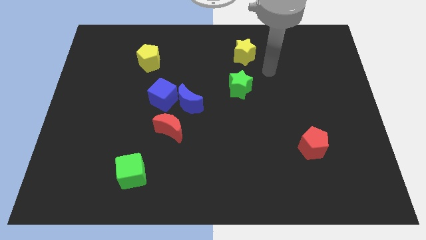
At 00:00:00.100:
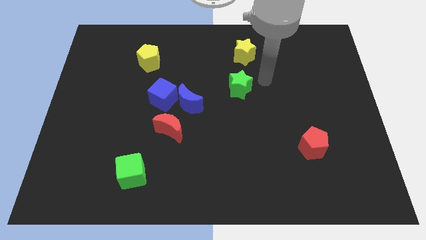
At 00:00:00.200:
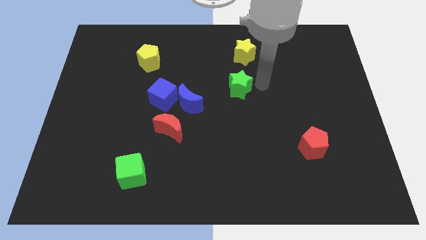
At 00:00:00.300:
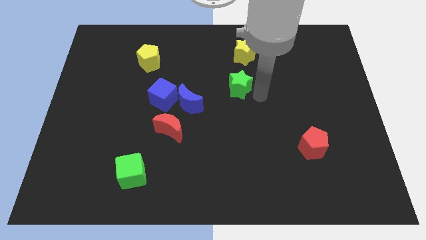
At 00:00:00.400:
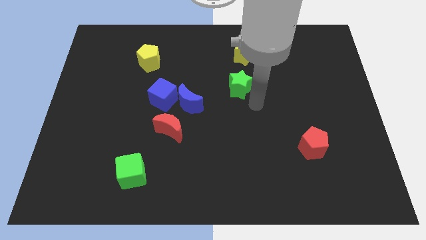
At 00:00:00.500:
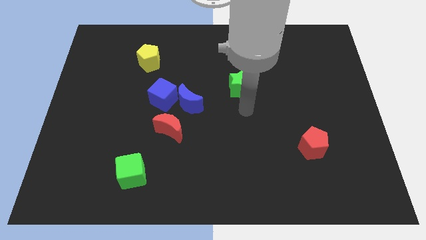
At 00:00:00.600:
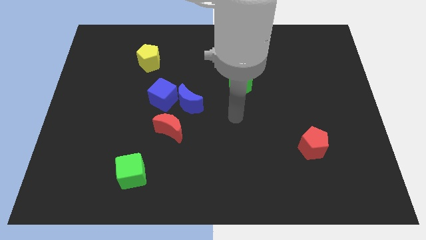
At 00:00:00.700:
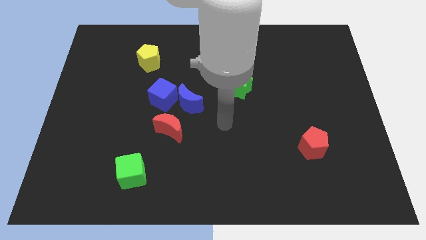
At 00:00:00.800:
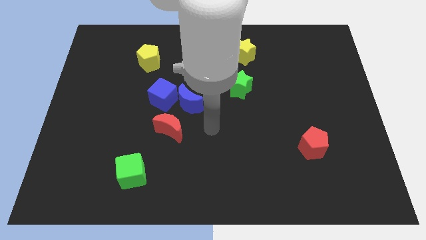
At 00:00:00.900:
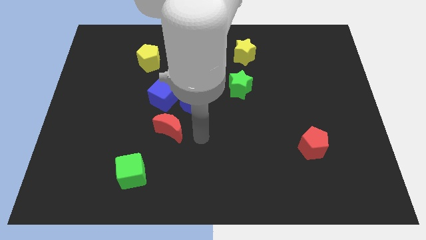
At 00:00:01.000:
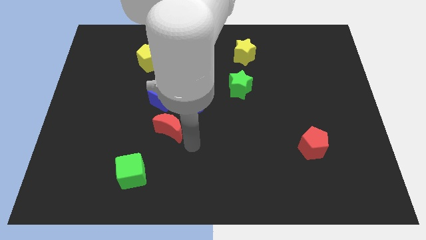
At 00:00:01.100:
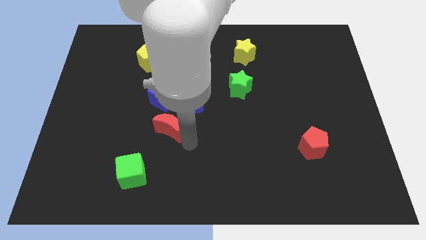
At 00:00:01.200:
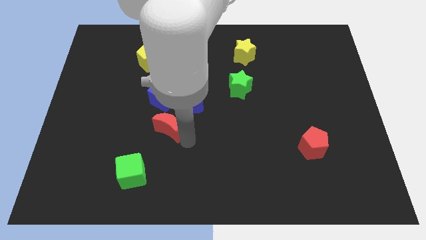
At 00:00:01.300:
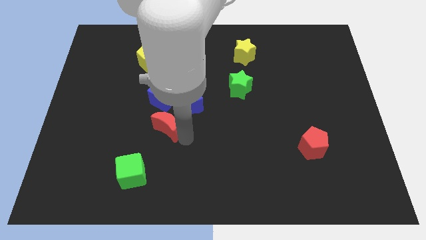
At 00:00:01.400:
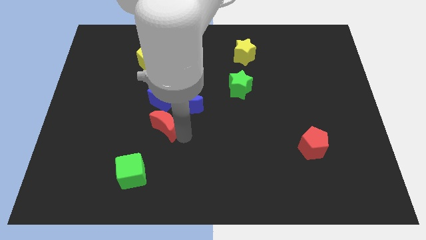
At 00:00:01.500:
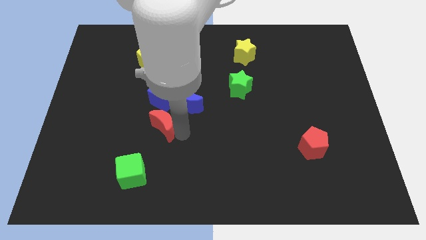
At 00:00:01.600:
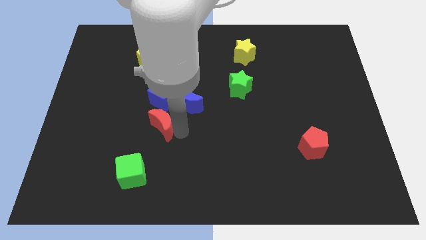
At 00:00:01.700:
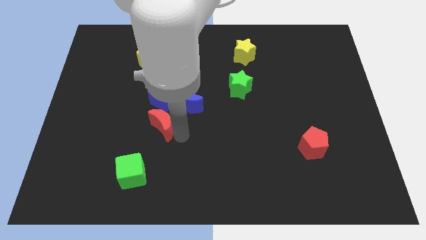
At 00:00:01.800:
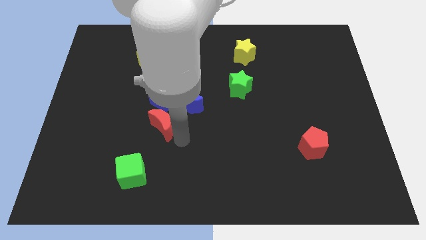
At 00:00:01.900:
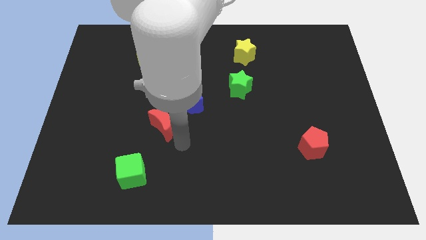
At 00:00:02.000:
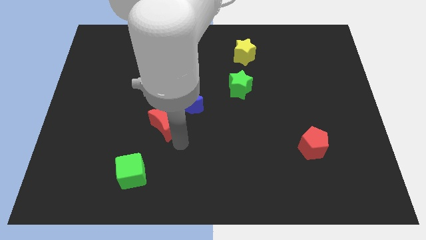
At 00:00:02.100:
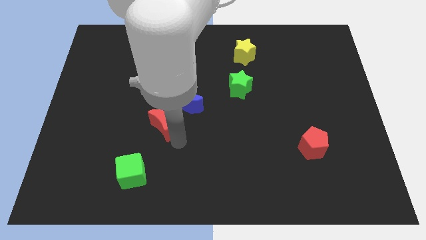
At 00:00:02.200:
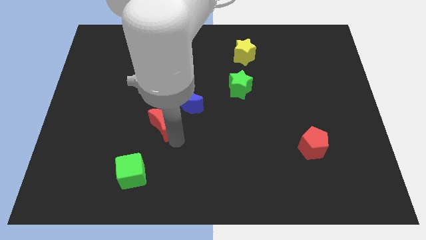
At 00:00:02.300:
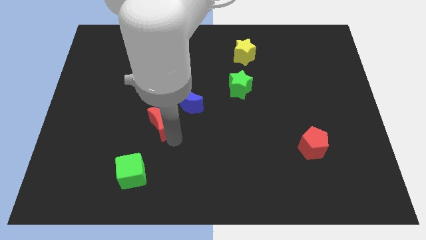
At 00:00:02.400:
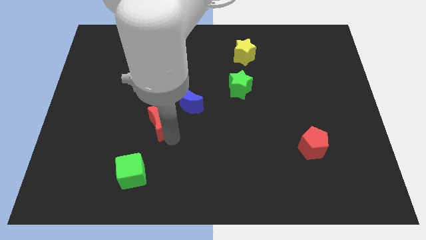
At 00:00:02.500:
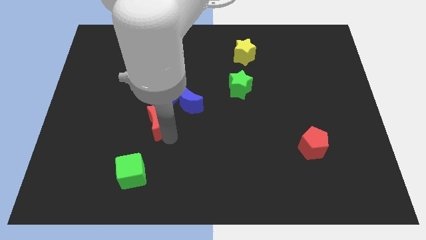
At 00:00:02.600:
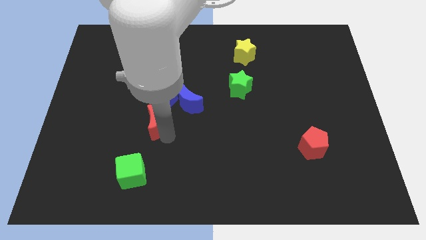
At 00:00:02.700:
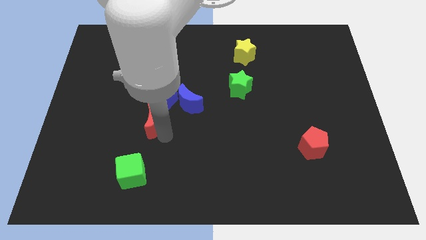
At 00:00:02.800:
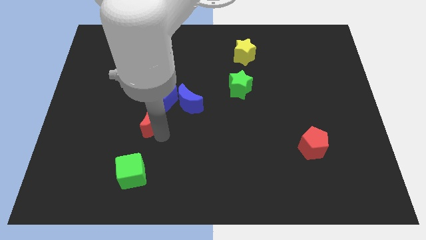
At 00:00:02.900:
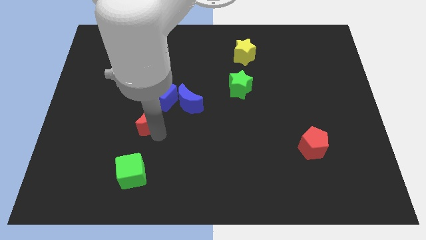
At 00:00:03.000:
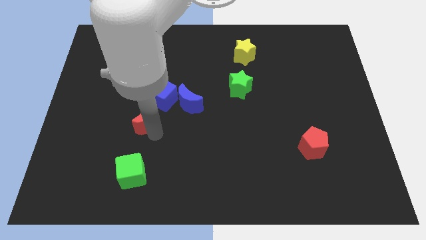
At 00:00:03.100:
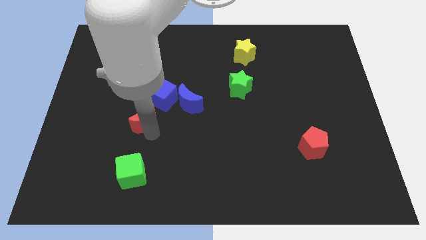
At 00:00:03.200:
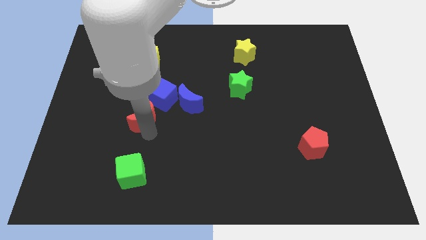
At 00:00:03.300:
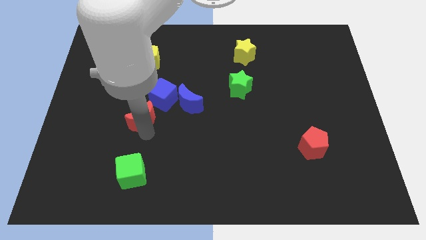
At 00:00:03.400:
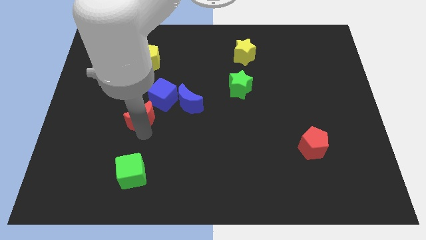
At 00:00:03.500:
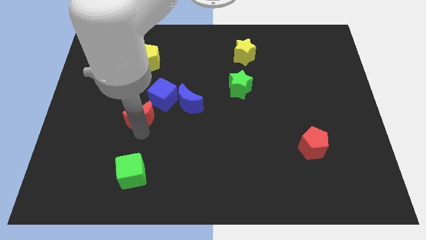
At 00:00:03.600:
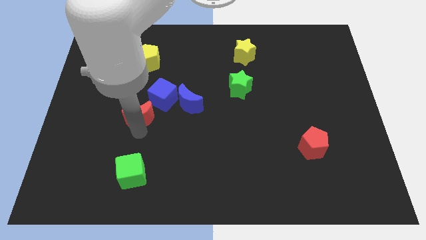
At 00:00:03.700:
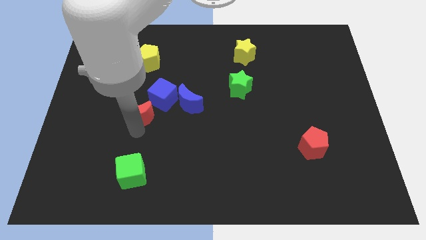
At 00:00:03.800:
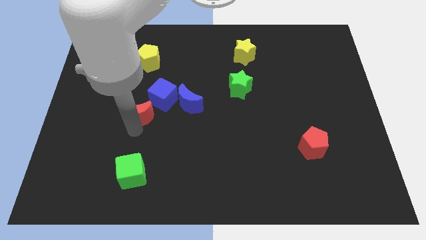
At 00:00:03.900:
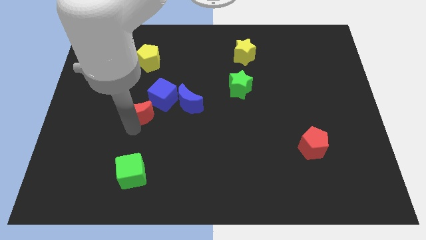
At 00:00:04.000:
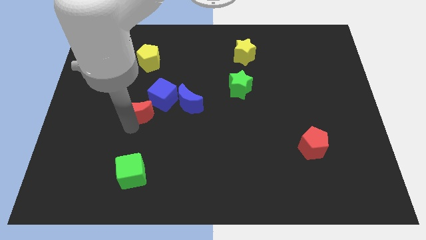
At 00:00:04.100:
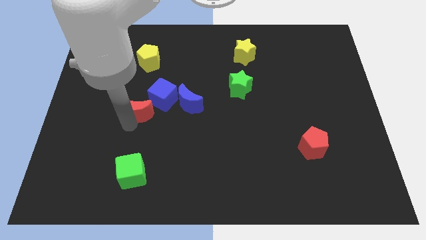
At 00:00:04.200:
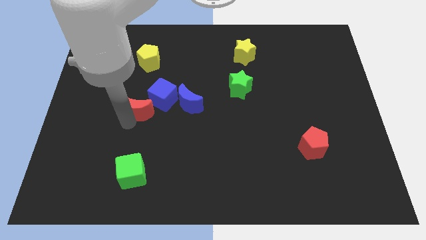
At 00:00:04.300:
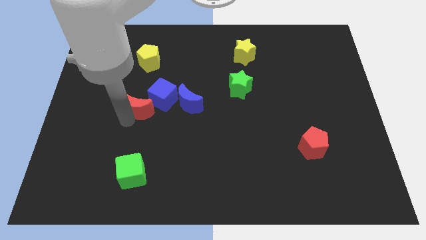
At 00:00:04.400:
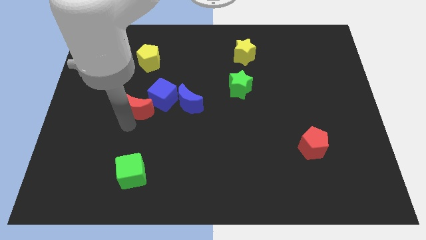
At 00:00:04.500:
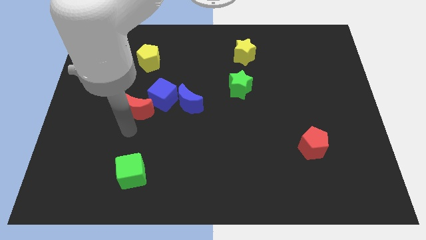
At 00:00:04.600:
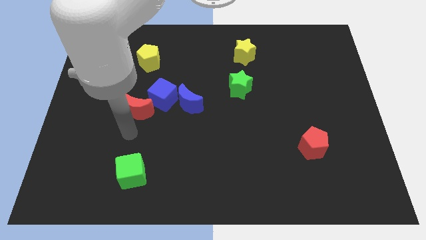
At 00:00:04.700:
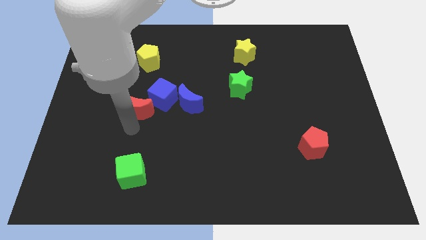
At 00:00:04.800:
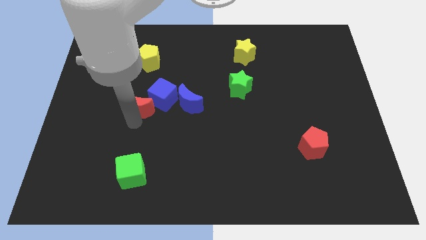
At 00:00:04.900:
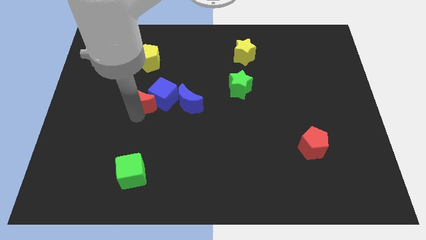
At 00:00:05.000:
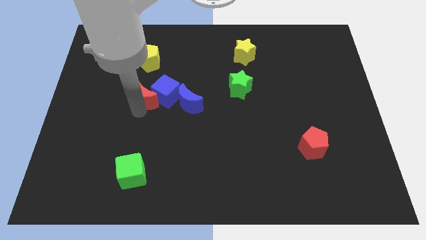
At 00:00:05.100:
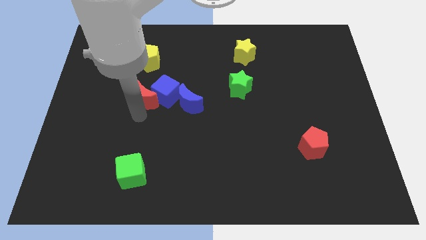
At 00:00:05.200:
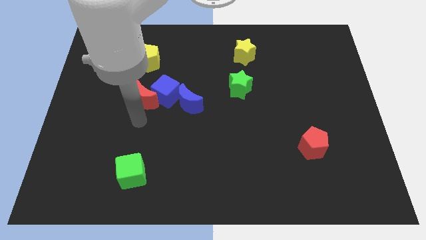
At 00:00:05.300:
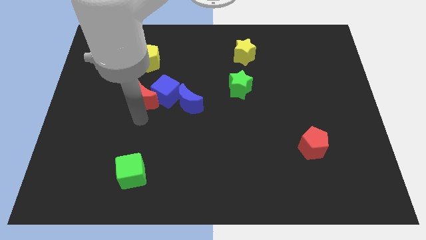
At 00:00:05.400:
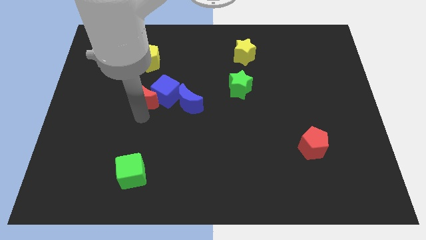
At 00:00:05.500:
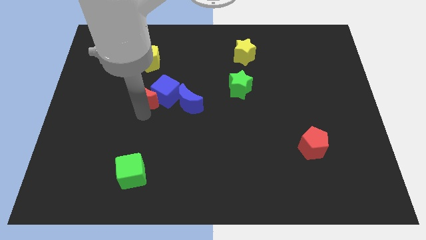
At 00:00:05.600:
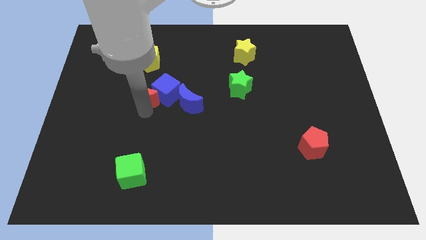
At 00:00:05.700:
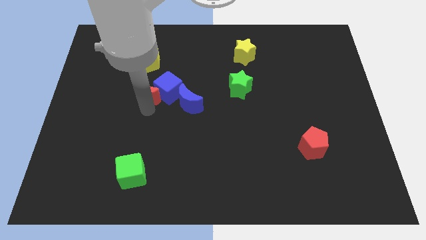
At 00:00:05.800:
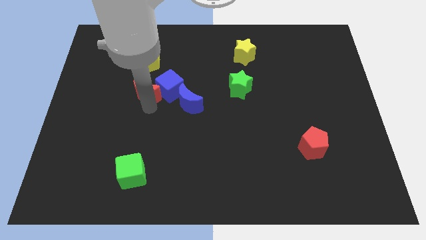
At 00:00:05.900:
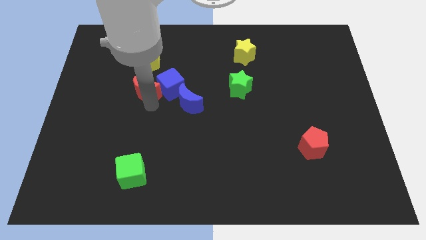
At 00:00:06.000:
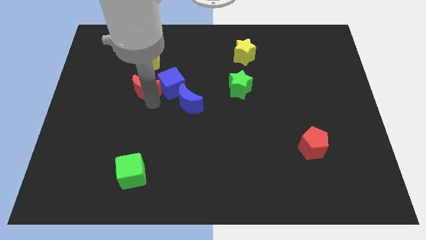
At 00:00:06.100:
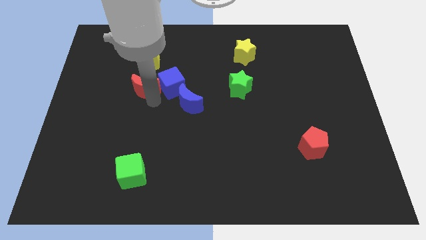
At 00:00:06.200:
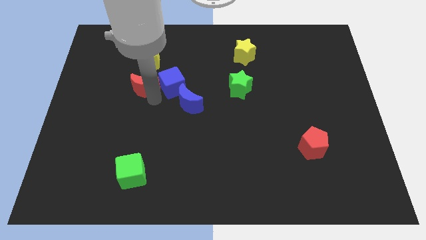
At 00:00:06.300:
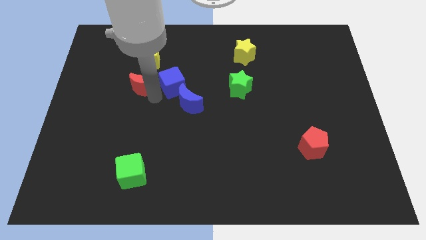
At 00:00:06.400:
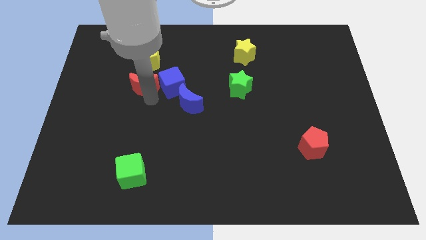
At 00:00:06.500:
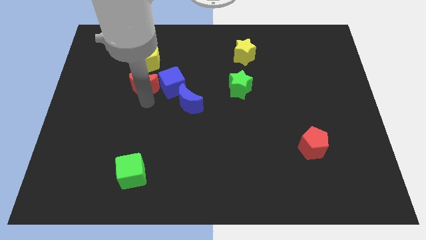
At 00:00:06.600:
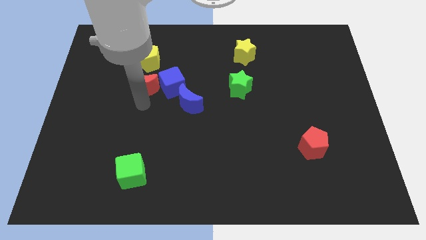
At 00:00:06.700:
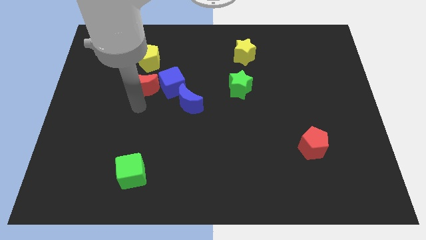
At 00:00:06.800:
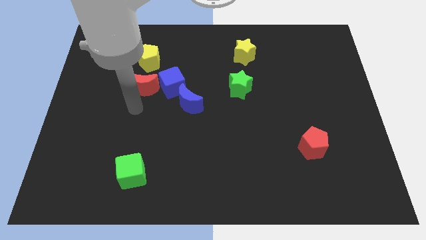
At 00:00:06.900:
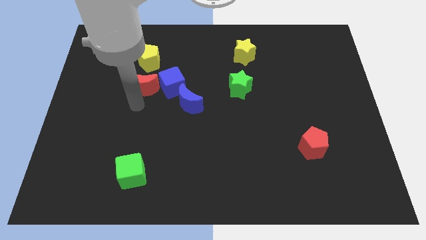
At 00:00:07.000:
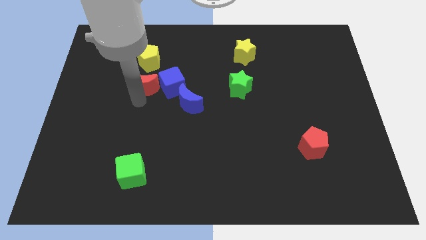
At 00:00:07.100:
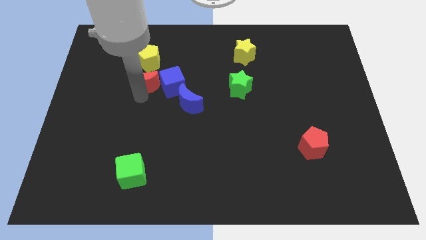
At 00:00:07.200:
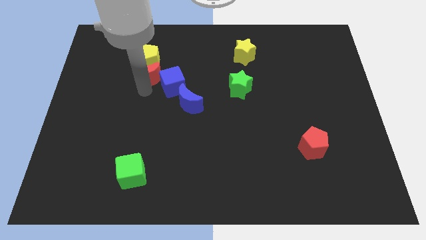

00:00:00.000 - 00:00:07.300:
slide the red moon next to the yellow pentagon
